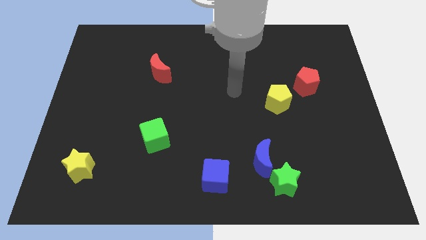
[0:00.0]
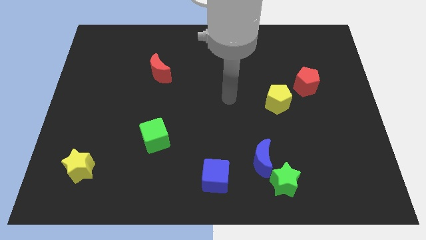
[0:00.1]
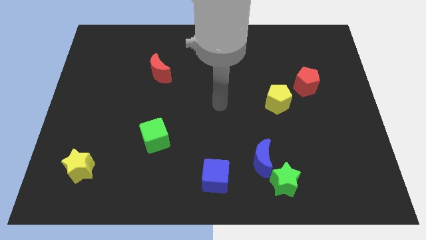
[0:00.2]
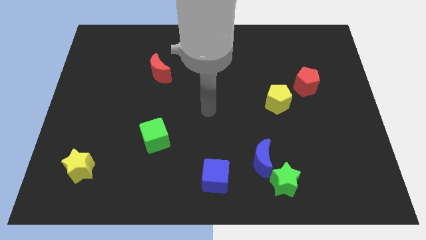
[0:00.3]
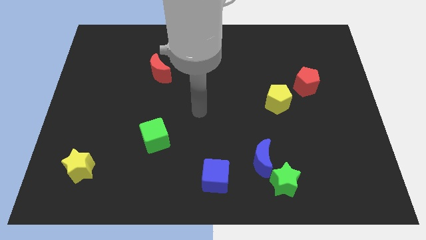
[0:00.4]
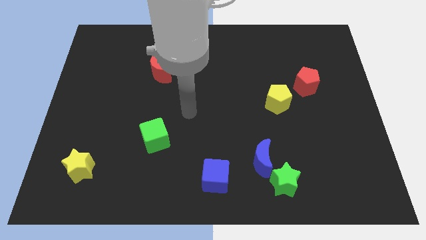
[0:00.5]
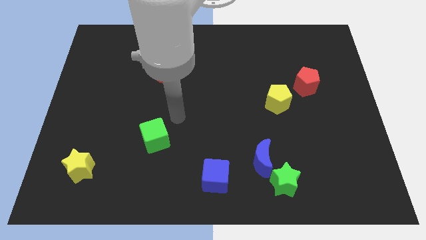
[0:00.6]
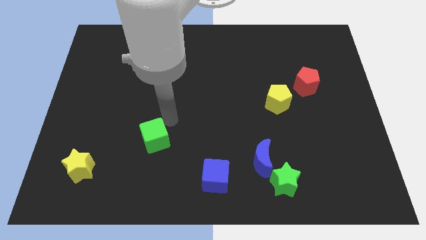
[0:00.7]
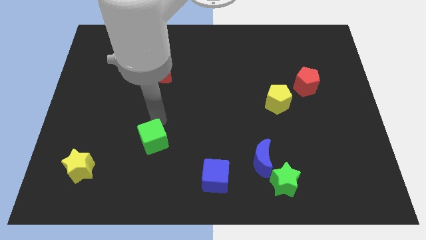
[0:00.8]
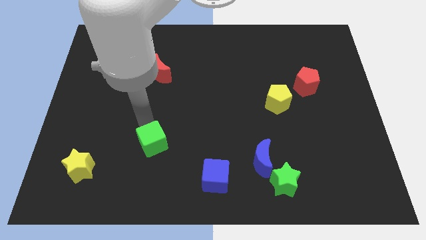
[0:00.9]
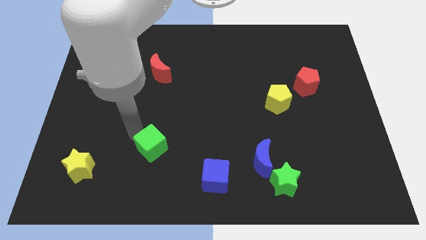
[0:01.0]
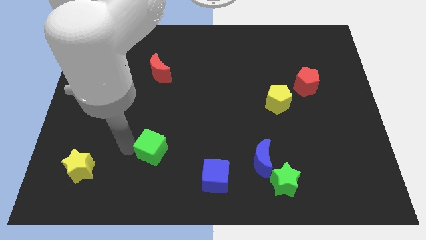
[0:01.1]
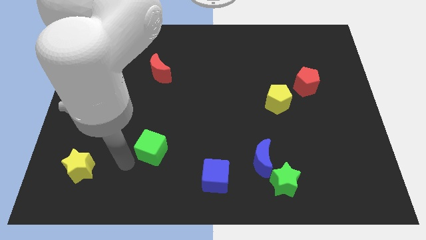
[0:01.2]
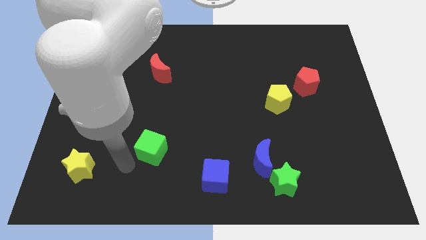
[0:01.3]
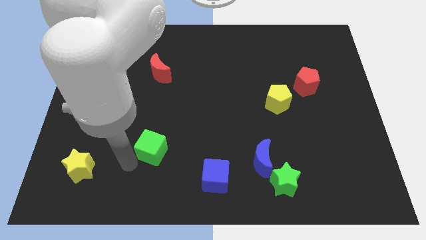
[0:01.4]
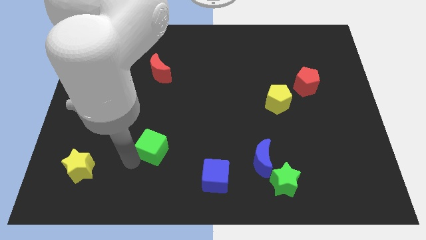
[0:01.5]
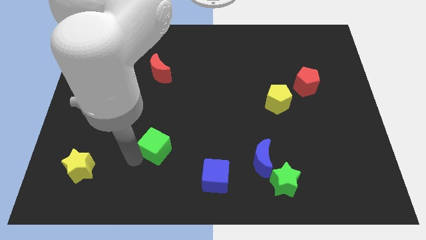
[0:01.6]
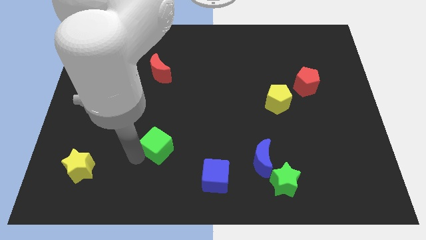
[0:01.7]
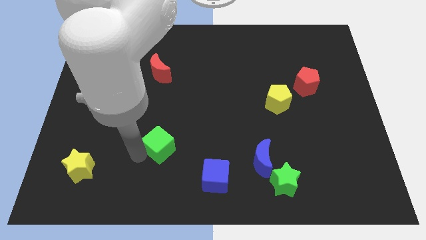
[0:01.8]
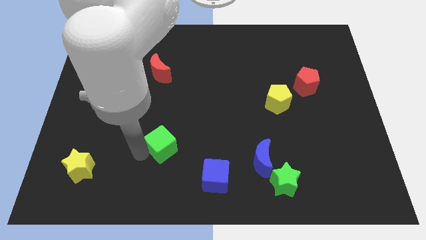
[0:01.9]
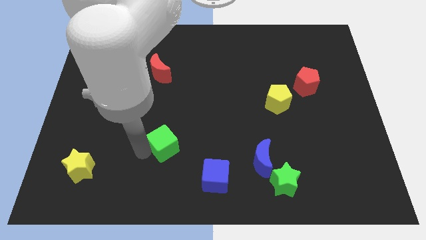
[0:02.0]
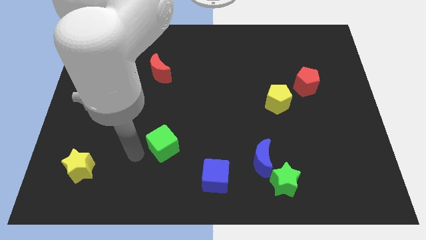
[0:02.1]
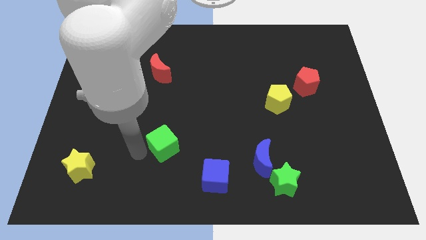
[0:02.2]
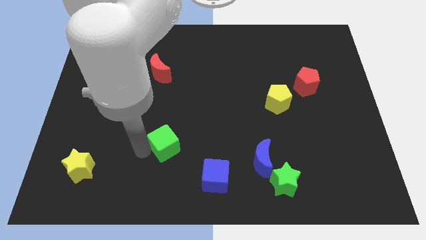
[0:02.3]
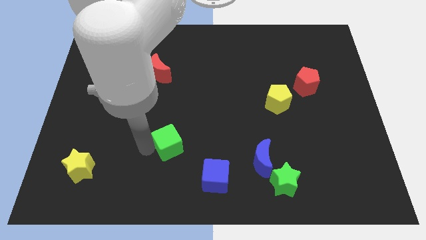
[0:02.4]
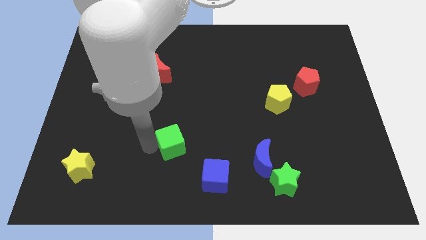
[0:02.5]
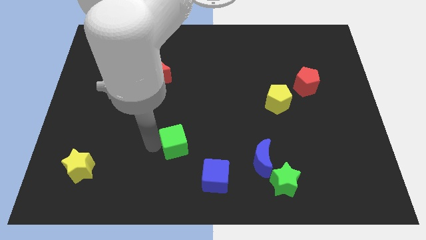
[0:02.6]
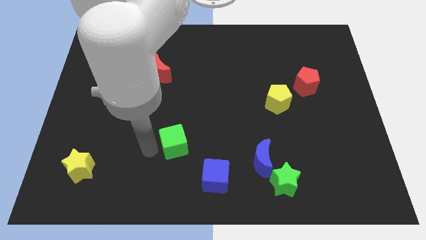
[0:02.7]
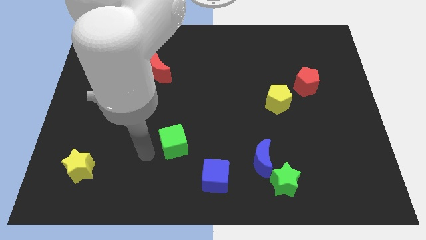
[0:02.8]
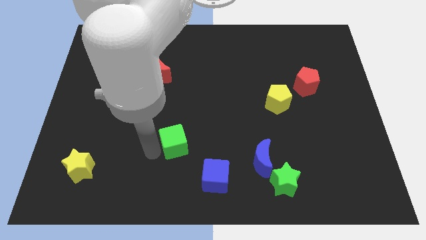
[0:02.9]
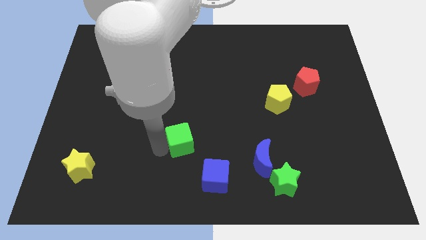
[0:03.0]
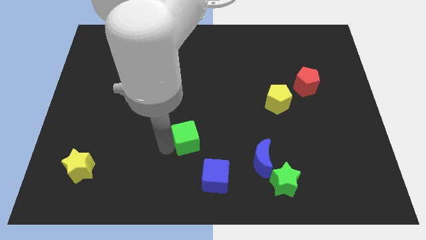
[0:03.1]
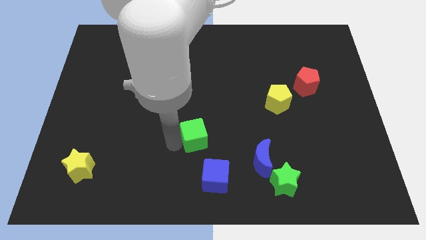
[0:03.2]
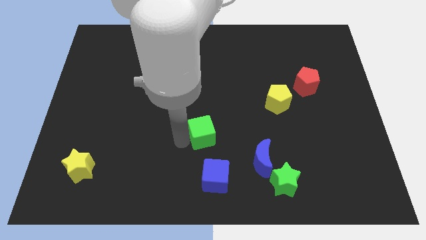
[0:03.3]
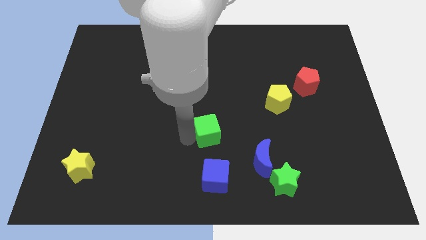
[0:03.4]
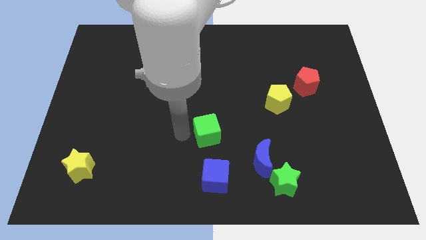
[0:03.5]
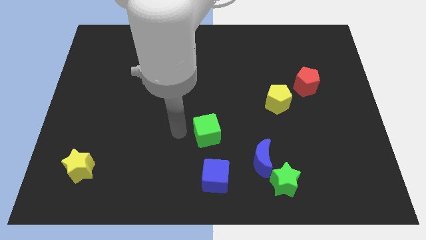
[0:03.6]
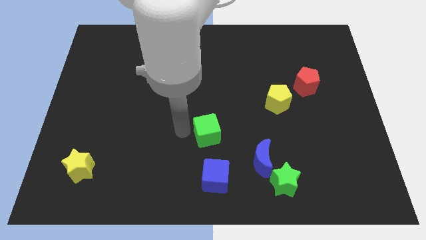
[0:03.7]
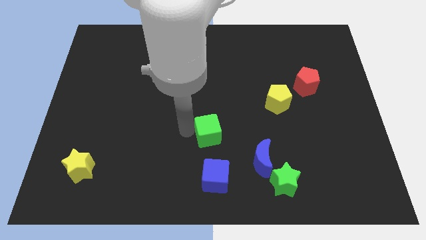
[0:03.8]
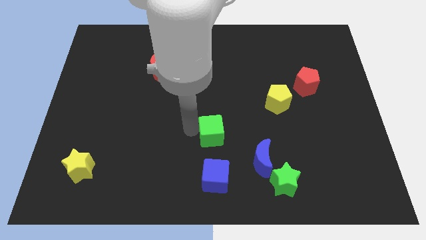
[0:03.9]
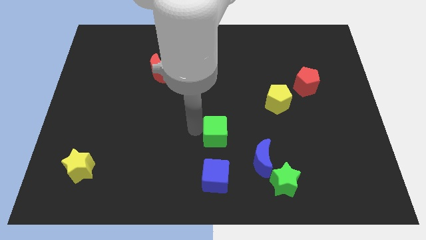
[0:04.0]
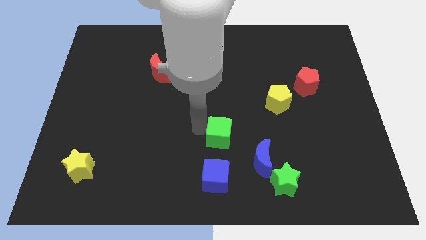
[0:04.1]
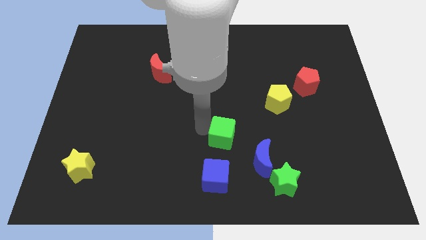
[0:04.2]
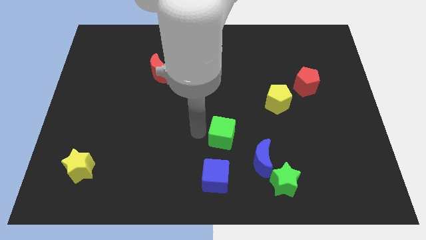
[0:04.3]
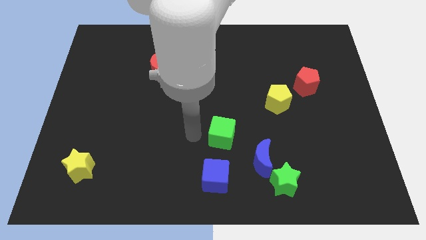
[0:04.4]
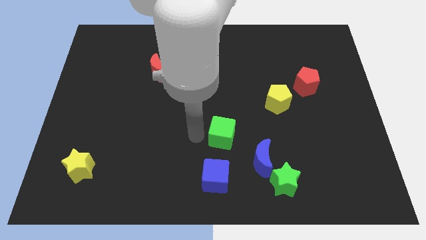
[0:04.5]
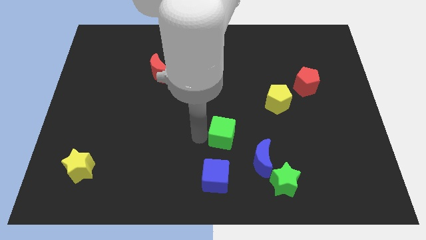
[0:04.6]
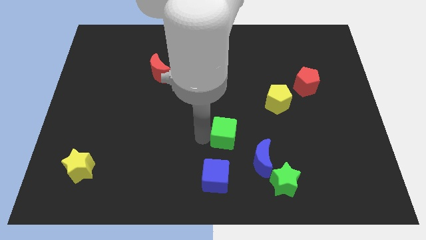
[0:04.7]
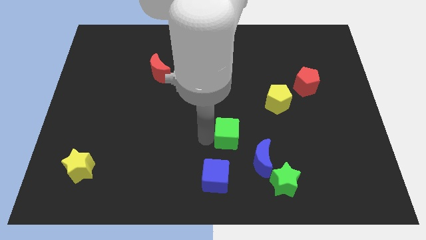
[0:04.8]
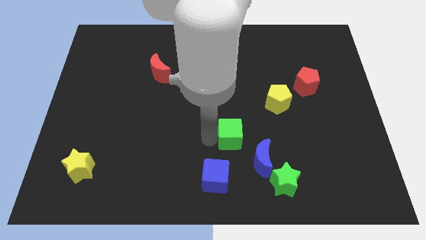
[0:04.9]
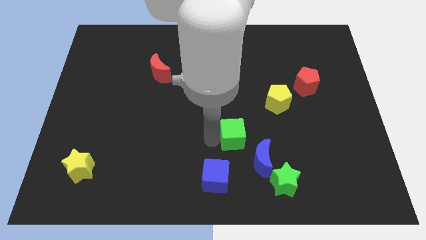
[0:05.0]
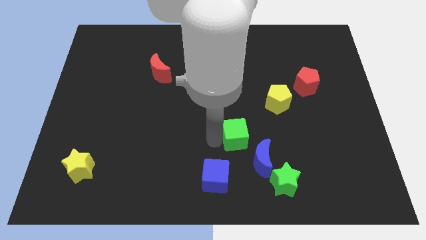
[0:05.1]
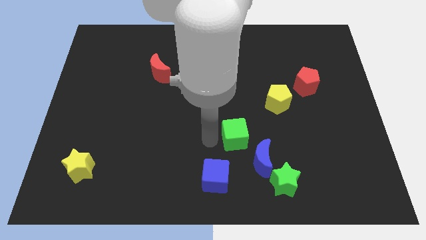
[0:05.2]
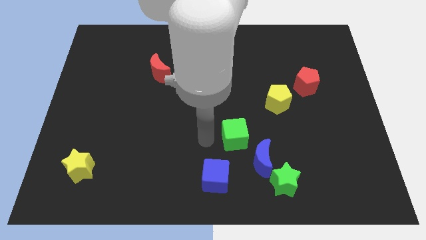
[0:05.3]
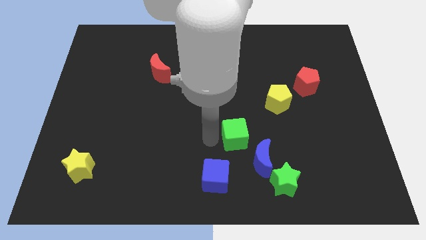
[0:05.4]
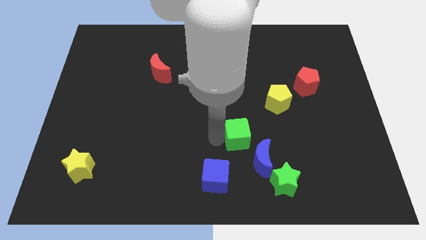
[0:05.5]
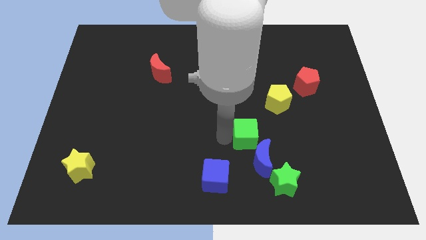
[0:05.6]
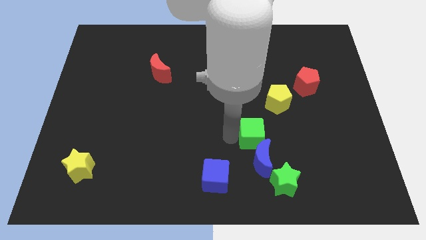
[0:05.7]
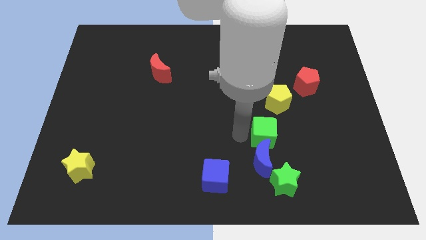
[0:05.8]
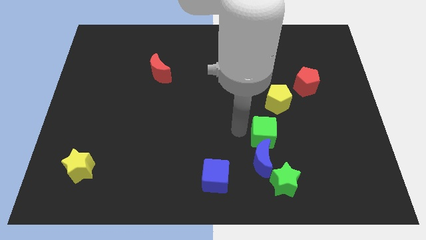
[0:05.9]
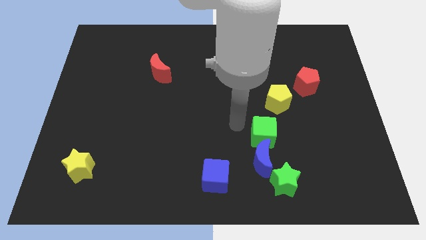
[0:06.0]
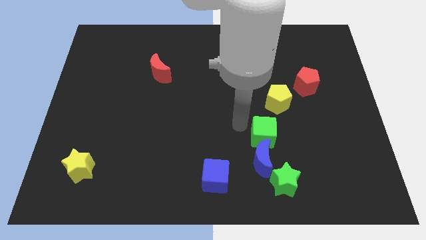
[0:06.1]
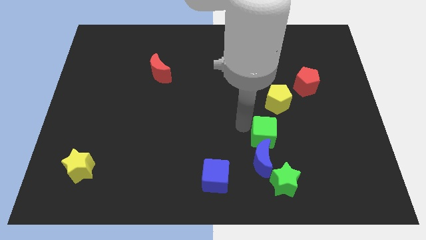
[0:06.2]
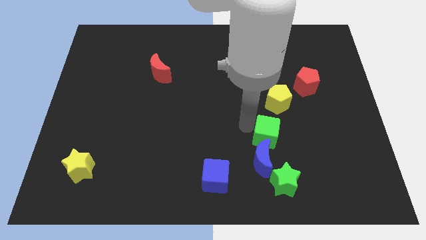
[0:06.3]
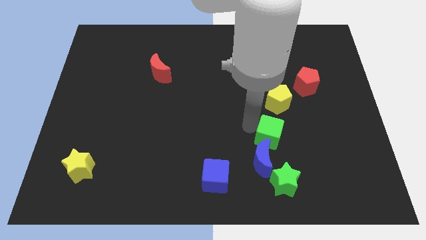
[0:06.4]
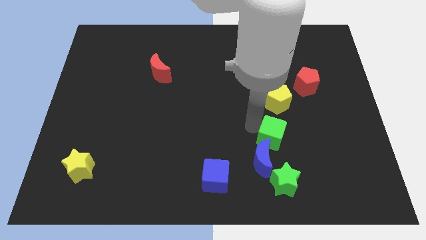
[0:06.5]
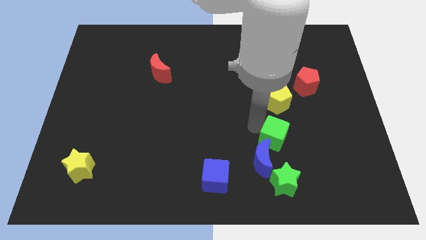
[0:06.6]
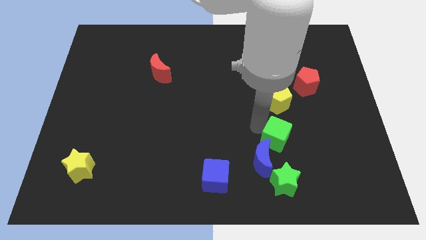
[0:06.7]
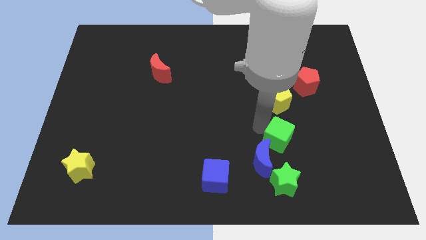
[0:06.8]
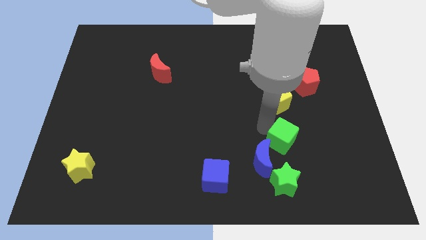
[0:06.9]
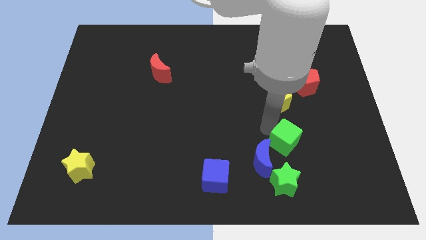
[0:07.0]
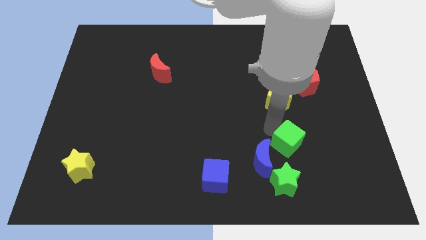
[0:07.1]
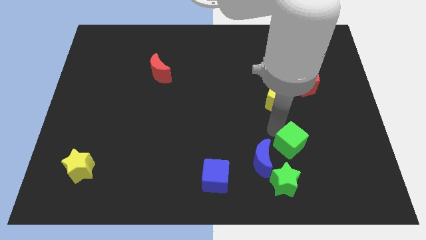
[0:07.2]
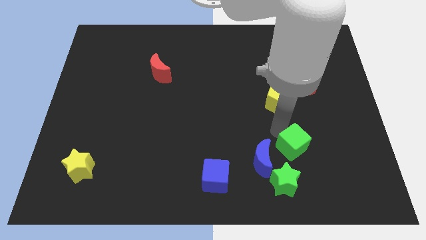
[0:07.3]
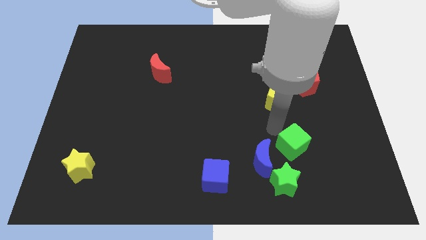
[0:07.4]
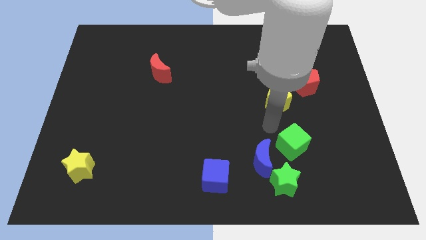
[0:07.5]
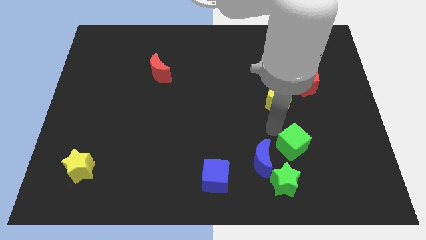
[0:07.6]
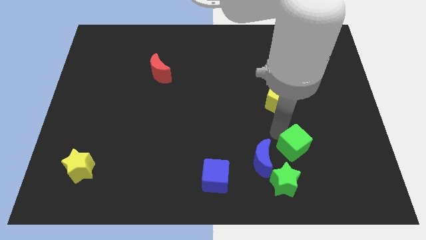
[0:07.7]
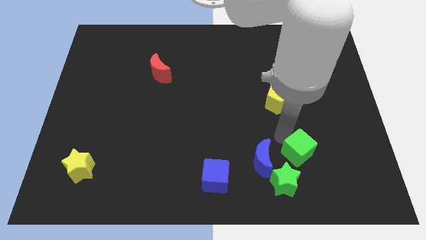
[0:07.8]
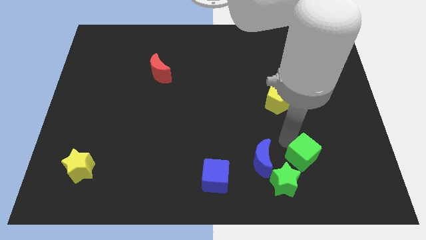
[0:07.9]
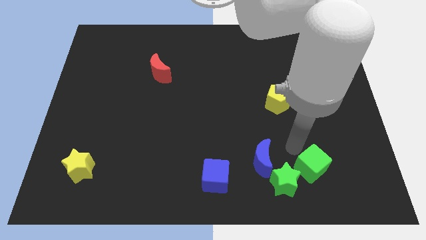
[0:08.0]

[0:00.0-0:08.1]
slide the green cube just right of the green star
